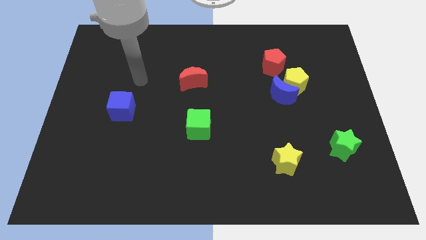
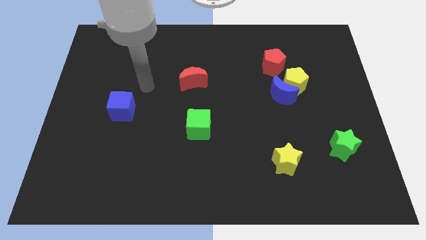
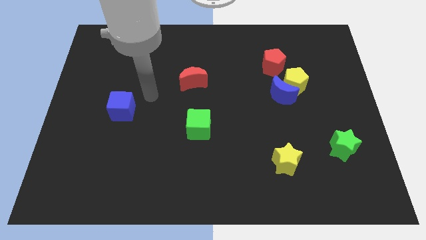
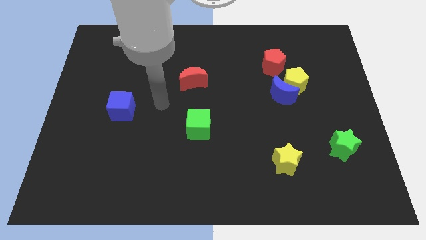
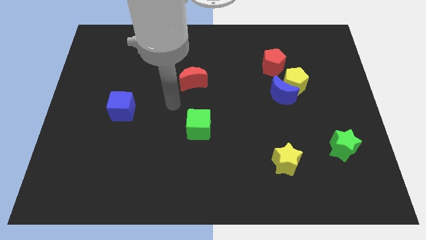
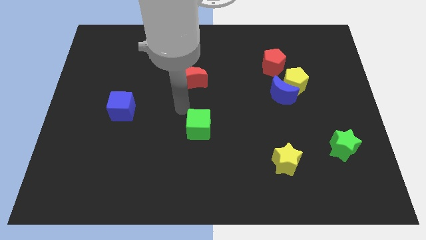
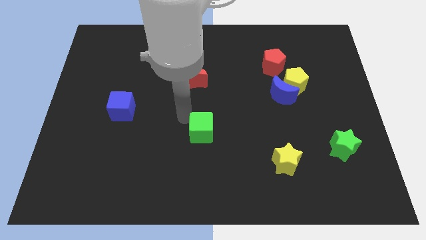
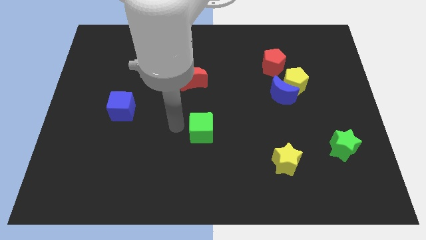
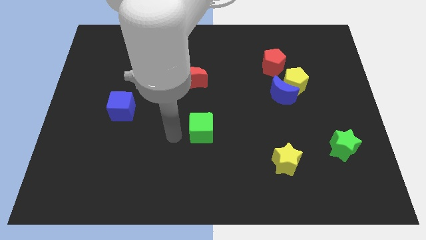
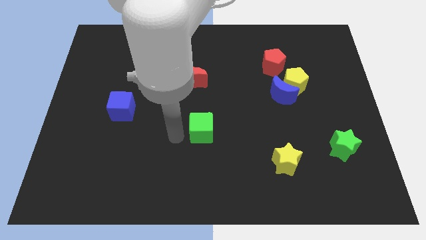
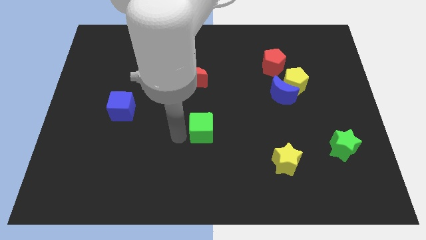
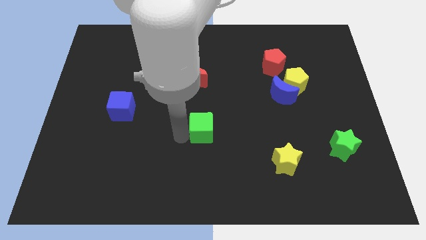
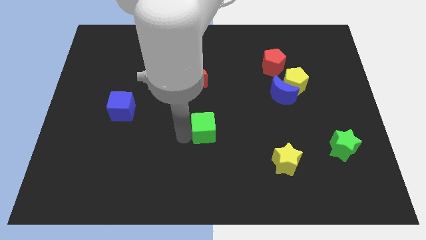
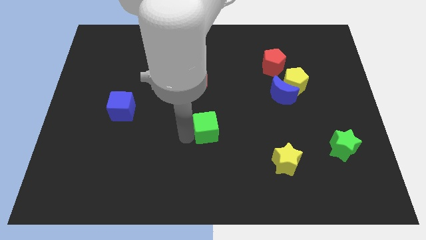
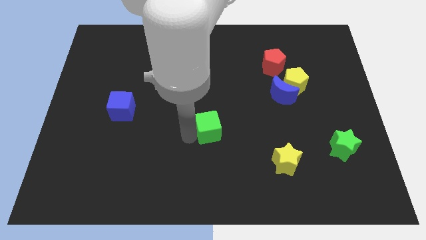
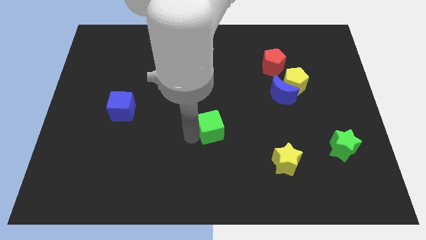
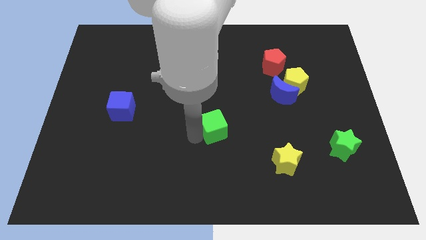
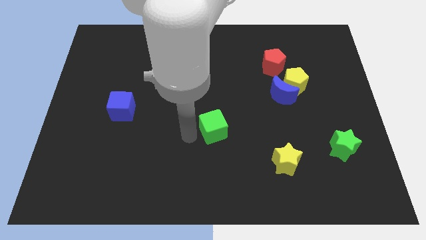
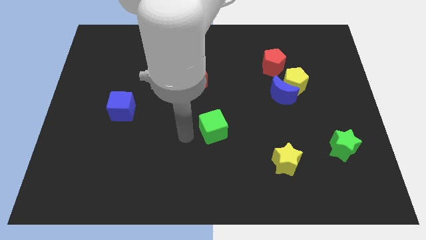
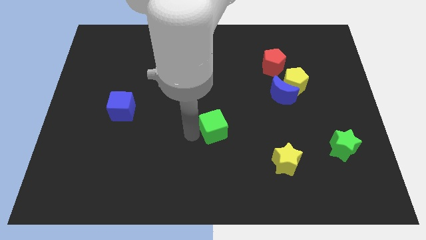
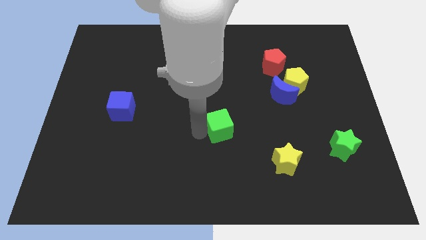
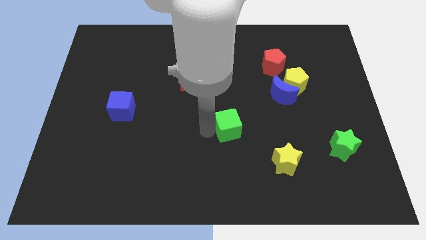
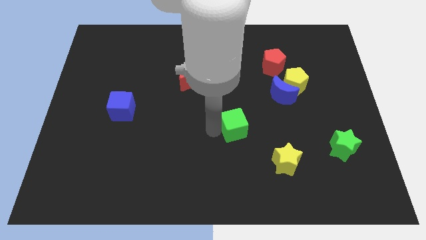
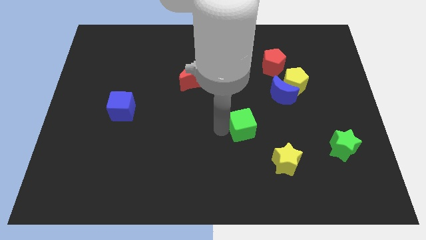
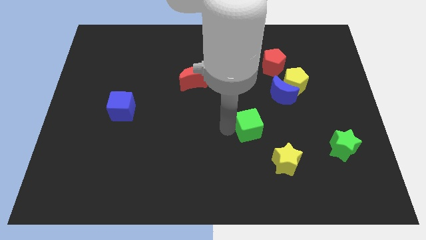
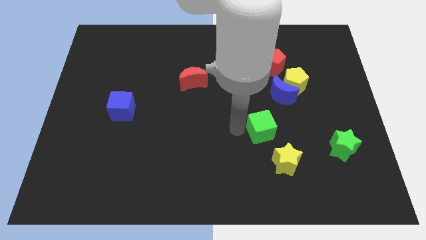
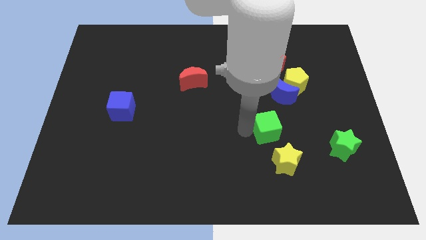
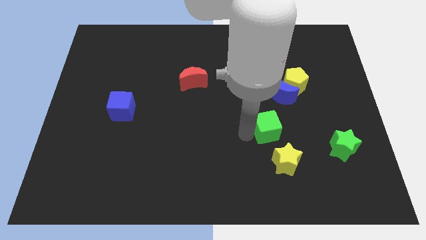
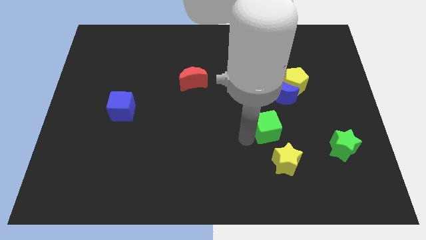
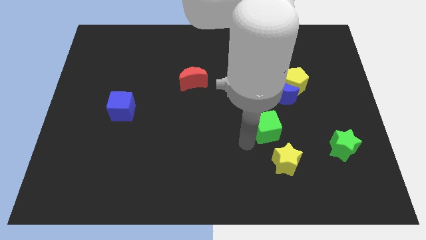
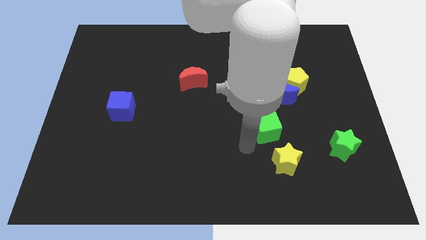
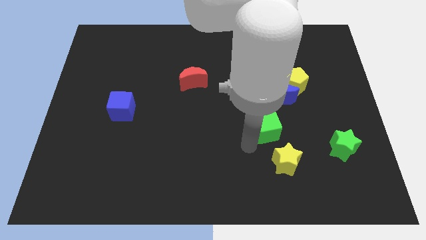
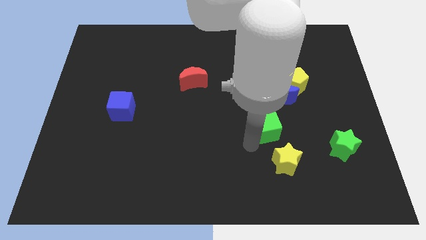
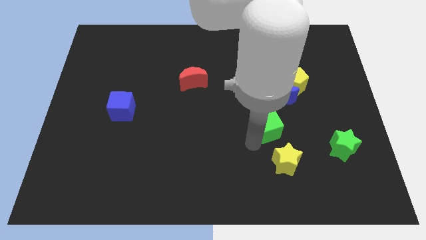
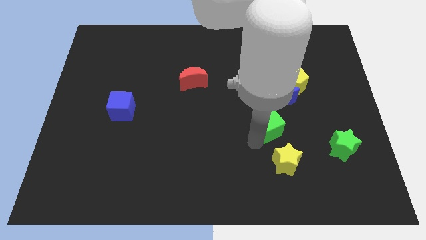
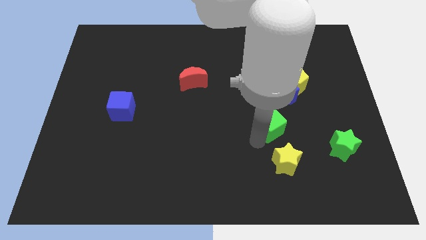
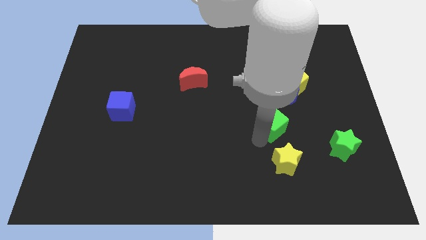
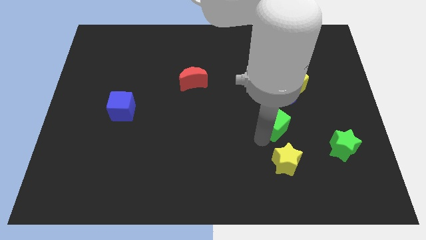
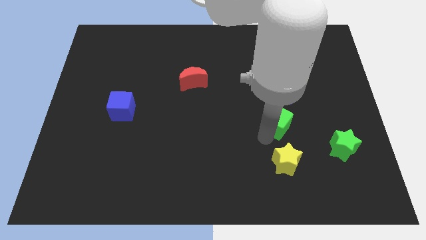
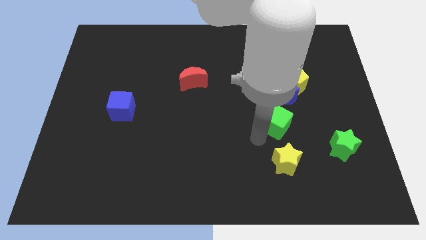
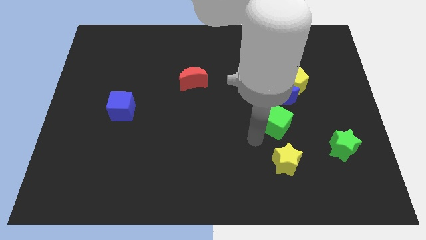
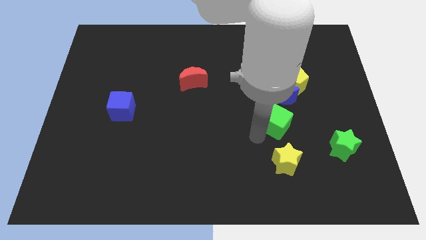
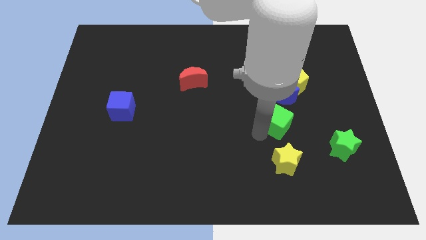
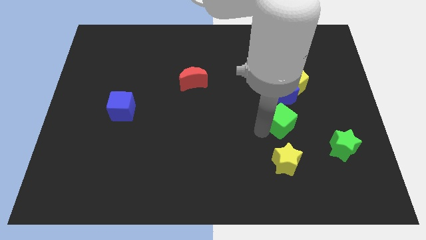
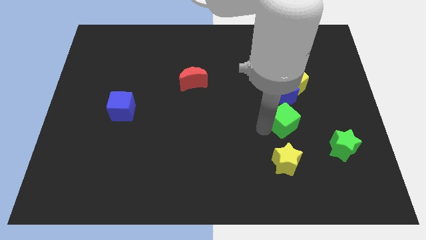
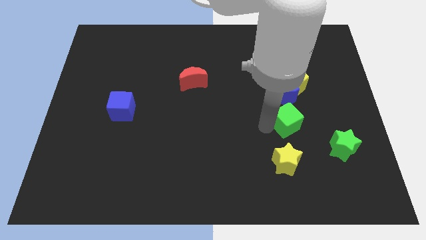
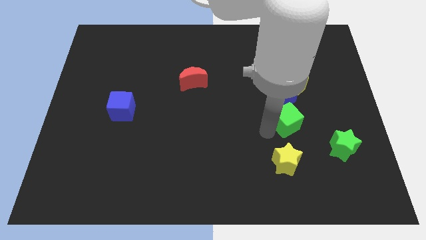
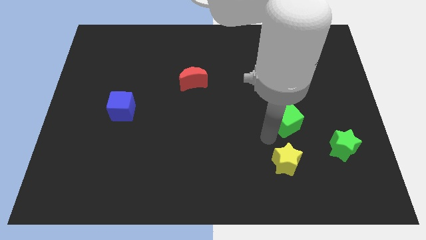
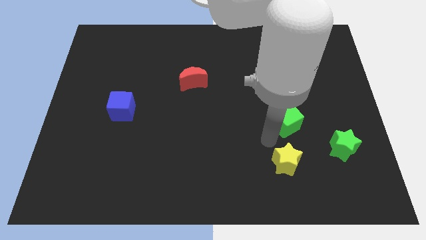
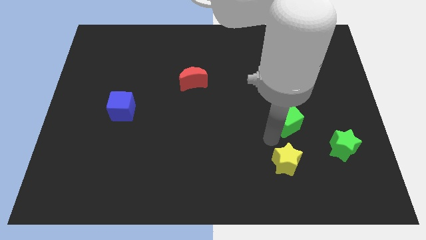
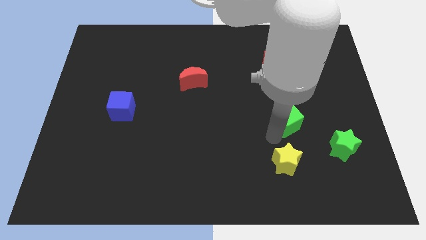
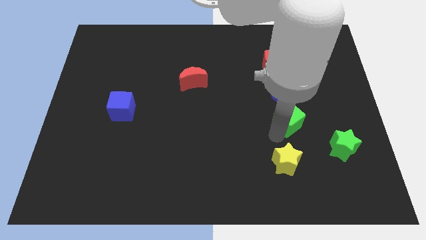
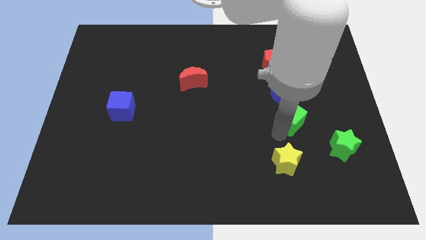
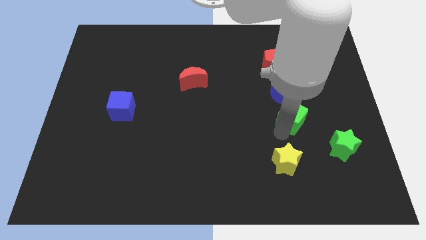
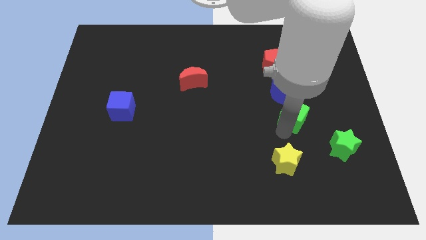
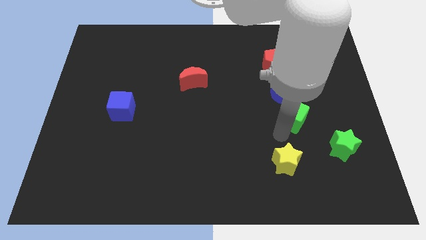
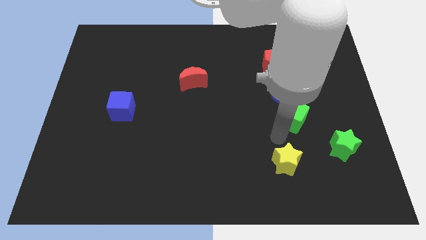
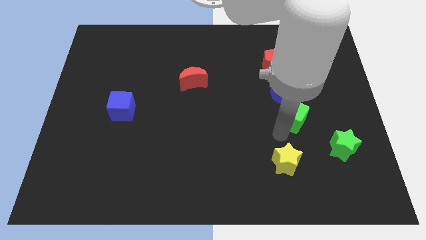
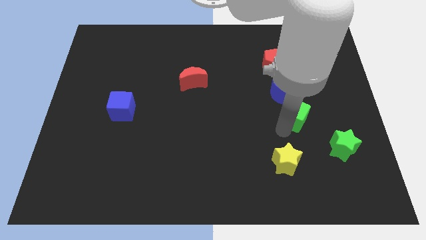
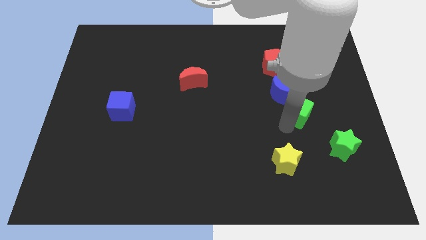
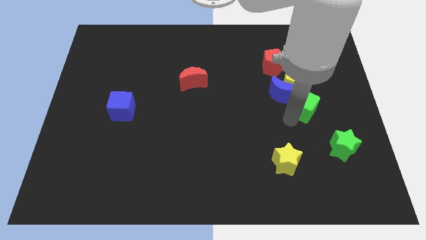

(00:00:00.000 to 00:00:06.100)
put the green cube just right of the blue moon

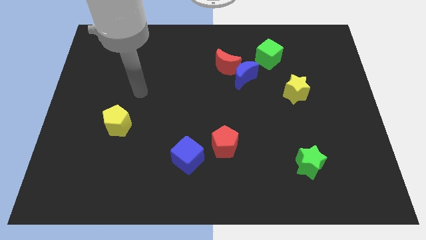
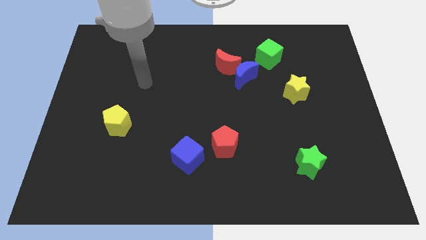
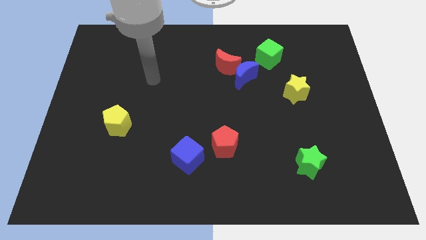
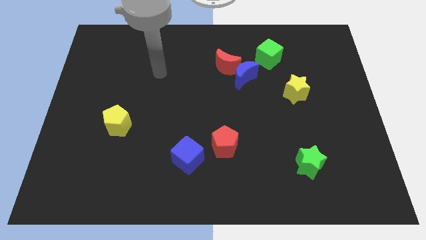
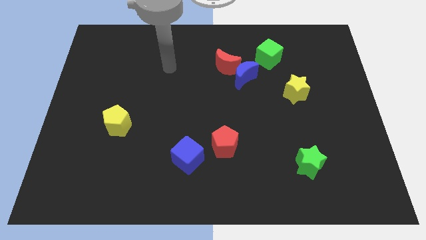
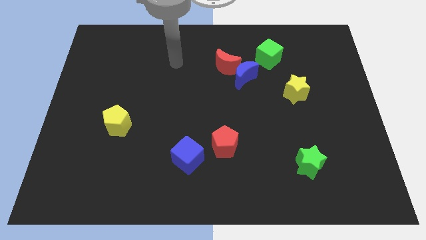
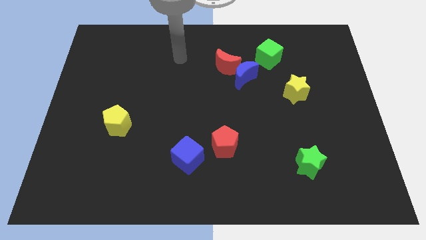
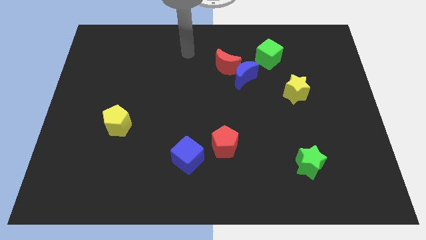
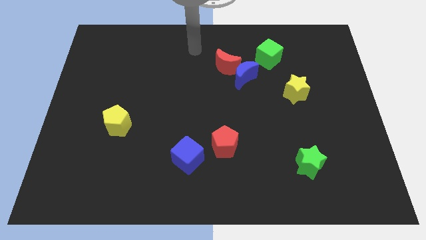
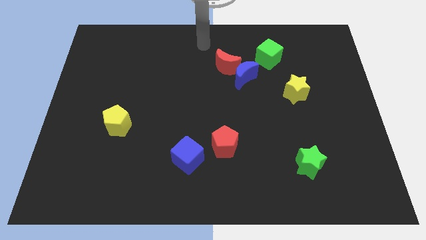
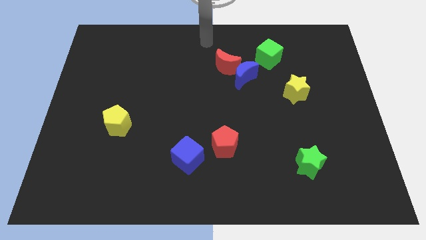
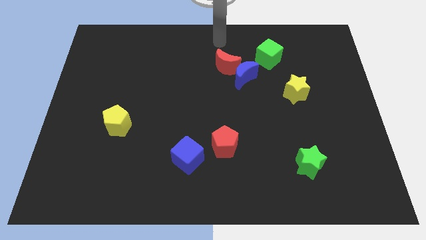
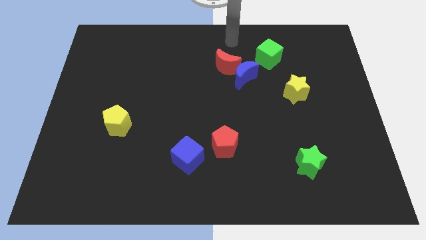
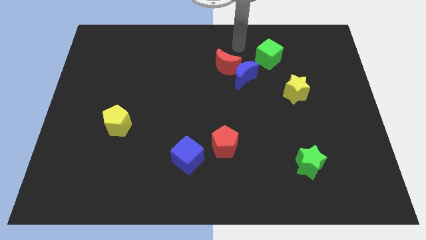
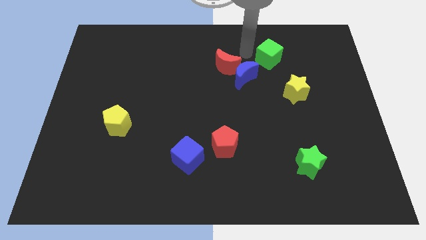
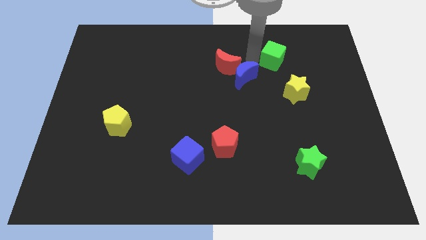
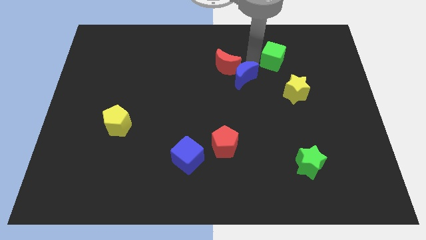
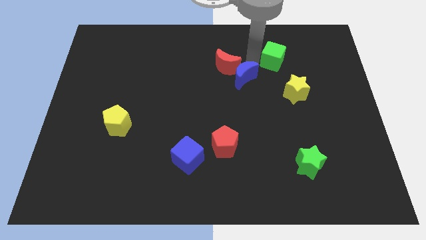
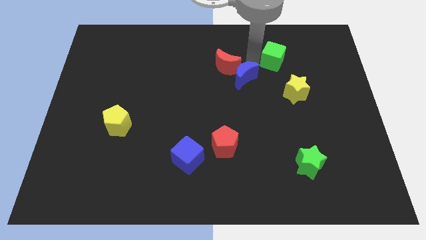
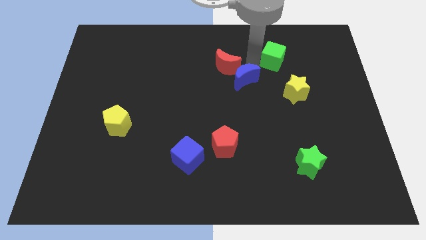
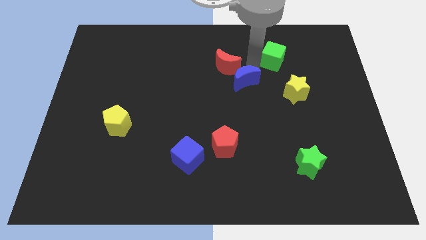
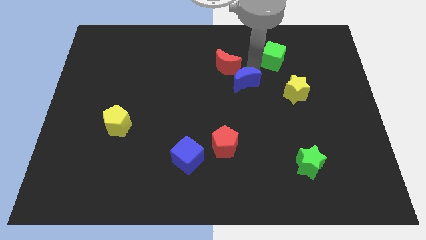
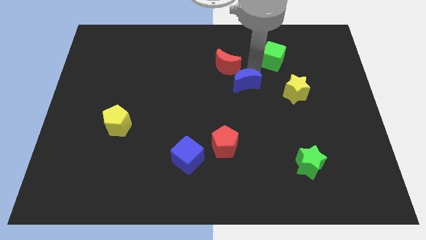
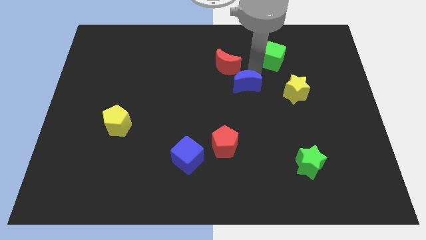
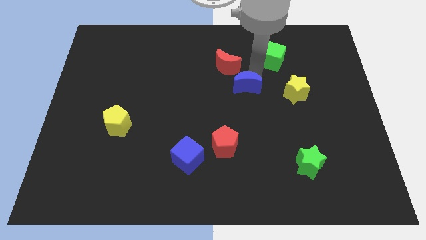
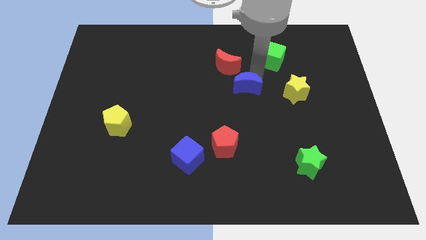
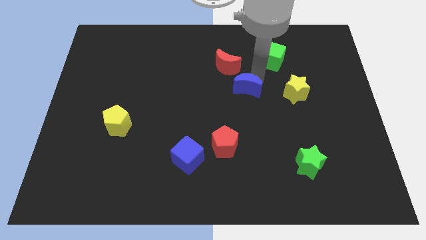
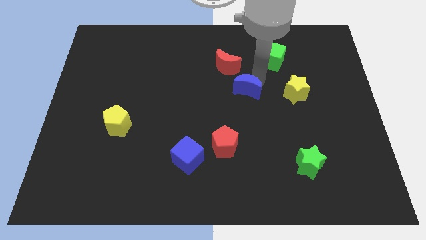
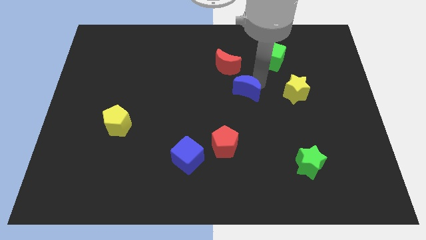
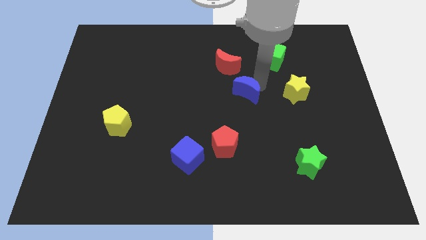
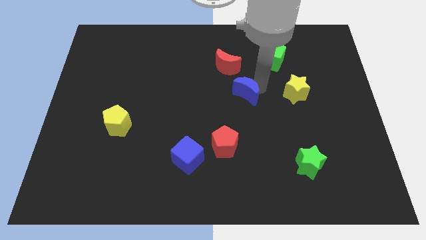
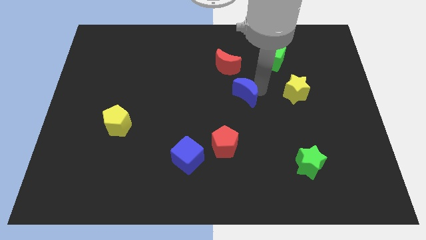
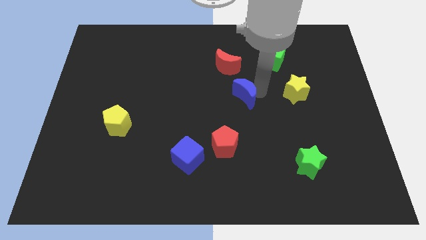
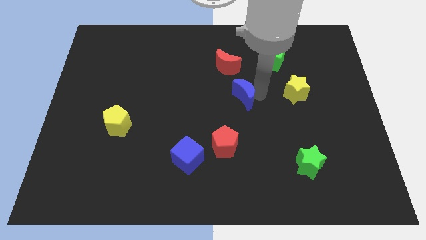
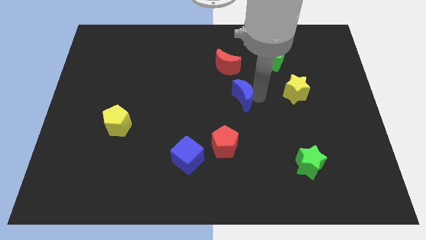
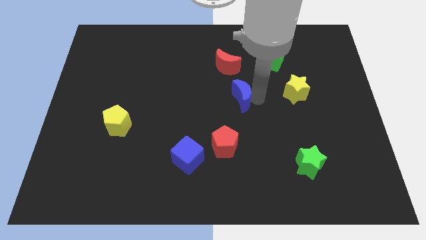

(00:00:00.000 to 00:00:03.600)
put the blue moon to the top of the red pentagon
